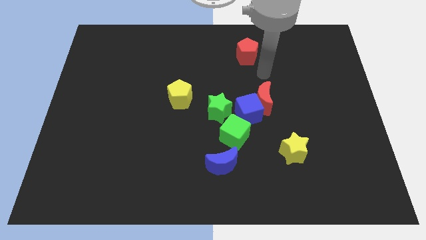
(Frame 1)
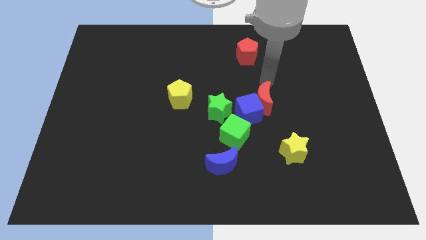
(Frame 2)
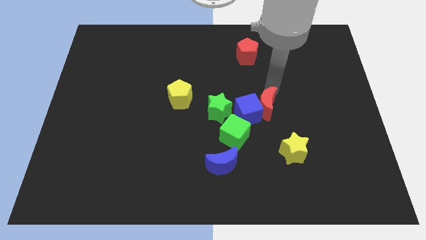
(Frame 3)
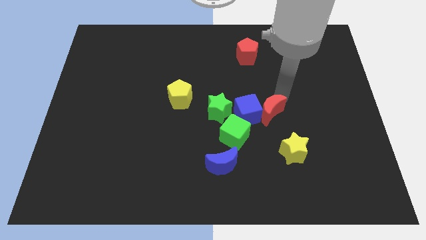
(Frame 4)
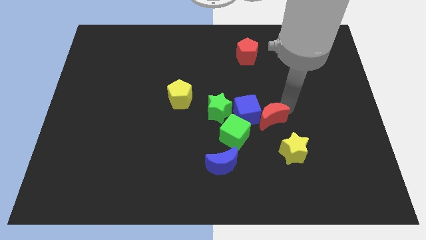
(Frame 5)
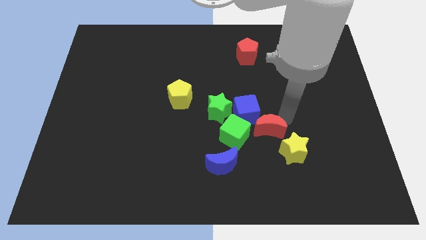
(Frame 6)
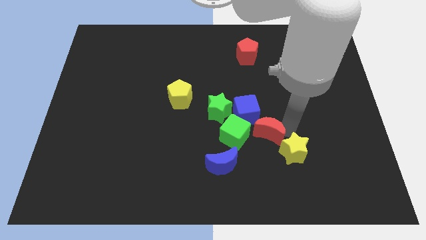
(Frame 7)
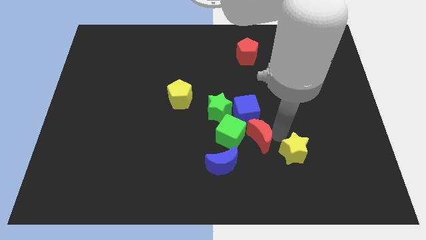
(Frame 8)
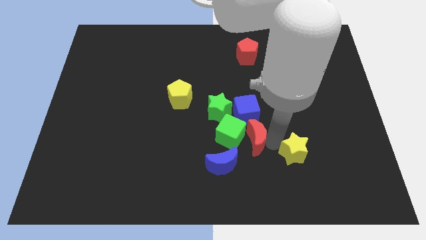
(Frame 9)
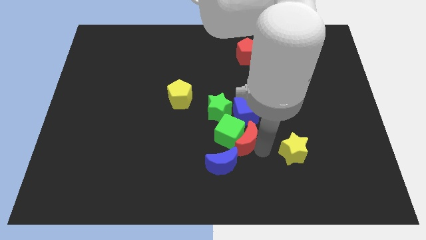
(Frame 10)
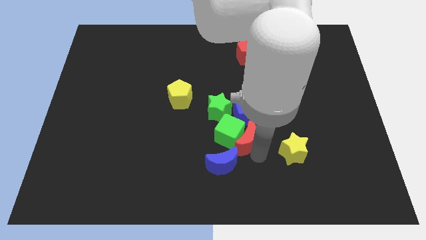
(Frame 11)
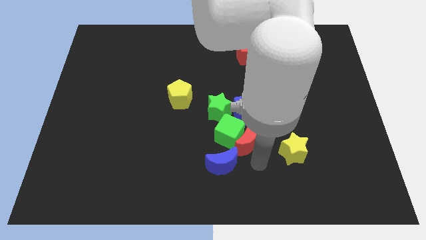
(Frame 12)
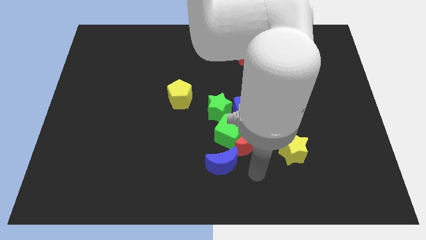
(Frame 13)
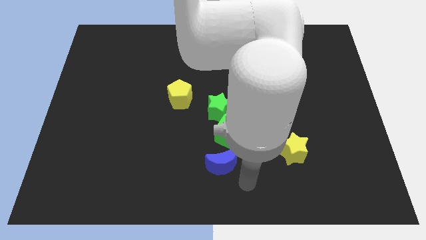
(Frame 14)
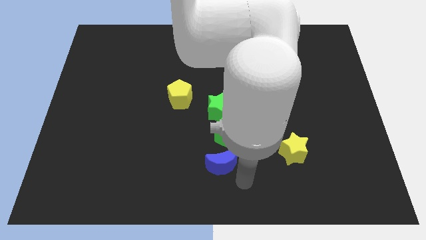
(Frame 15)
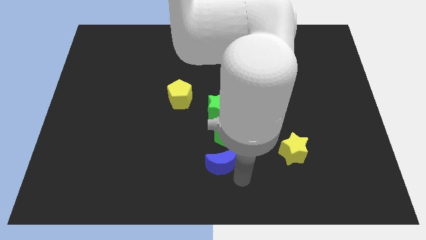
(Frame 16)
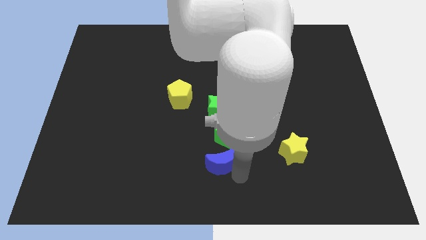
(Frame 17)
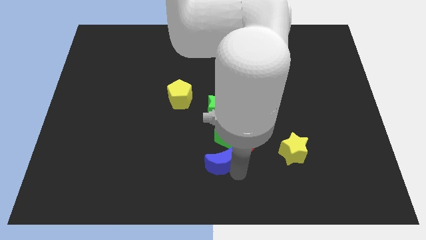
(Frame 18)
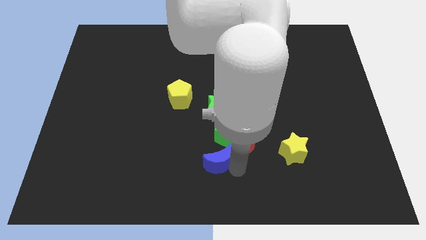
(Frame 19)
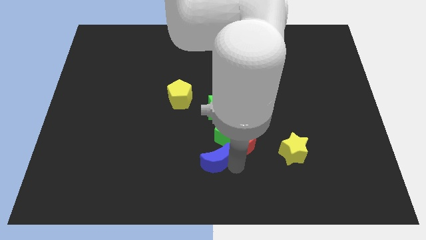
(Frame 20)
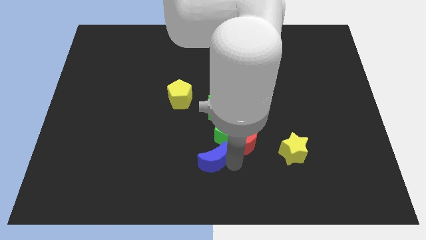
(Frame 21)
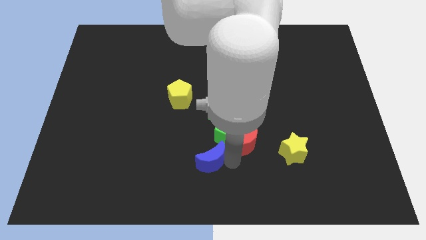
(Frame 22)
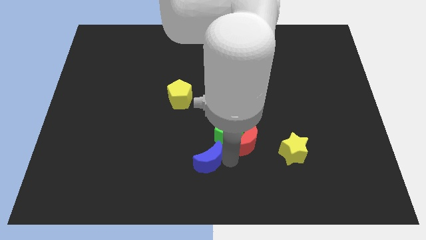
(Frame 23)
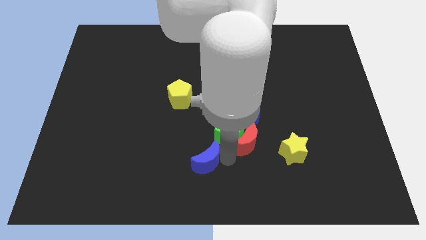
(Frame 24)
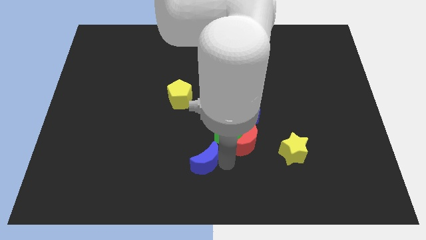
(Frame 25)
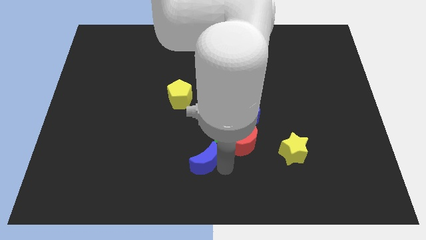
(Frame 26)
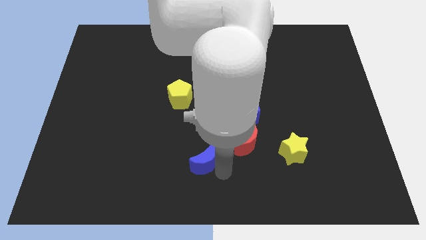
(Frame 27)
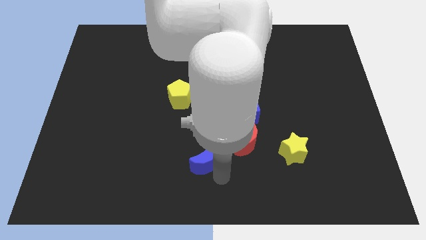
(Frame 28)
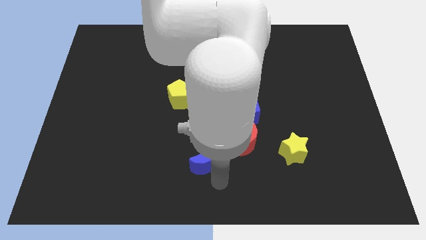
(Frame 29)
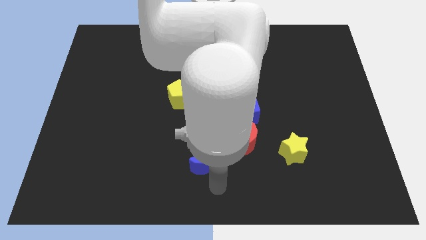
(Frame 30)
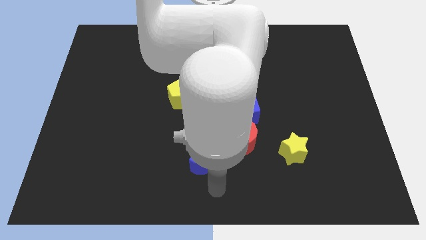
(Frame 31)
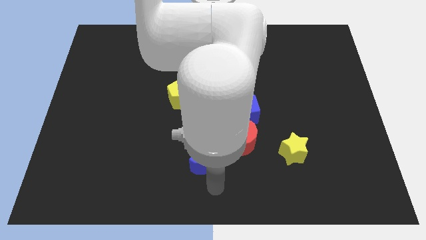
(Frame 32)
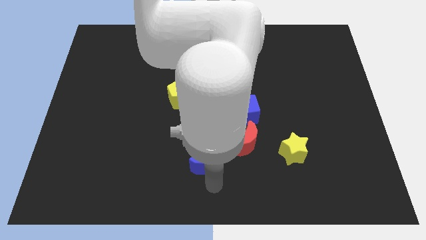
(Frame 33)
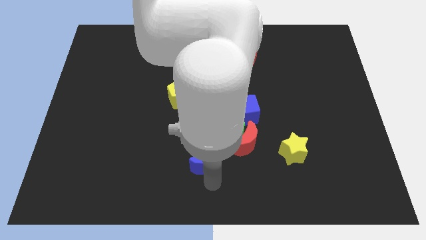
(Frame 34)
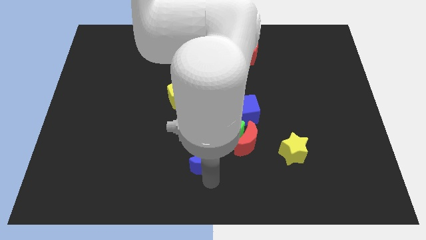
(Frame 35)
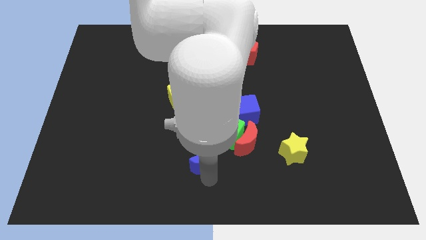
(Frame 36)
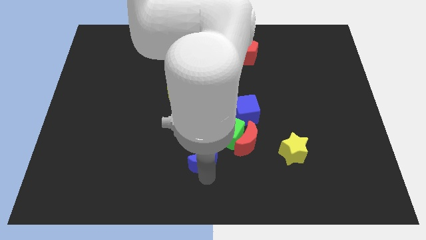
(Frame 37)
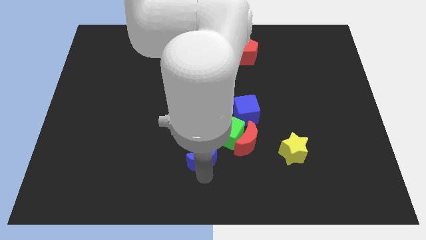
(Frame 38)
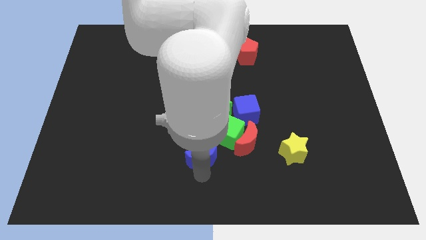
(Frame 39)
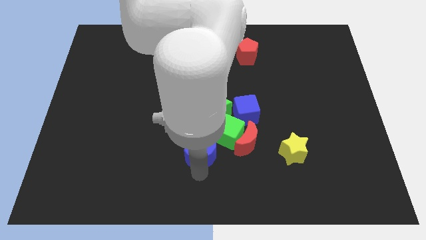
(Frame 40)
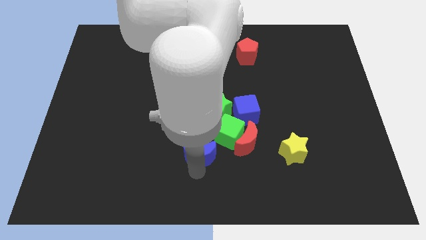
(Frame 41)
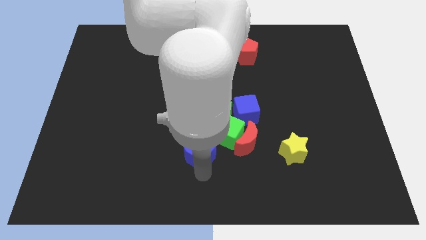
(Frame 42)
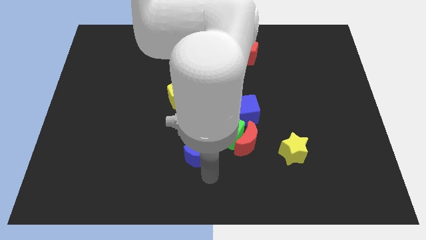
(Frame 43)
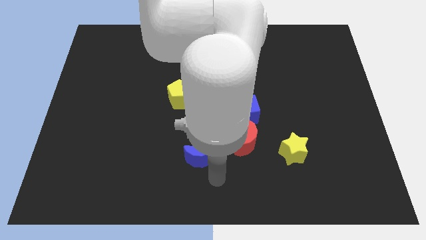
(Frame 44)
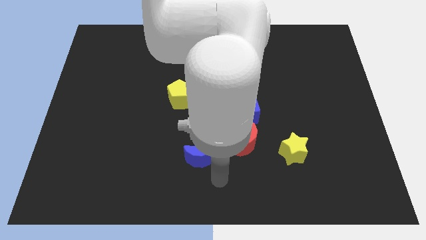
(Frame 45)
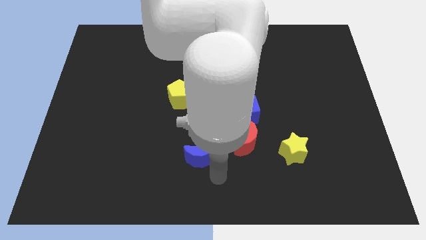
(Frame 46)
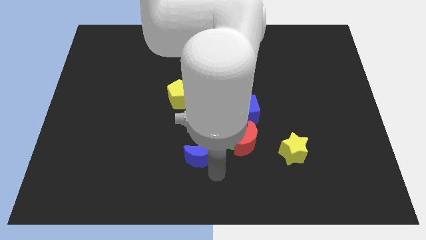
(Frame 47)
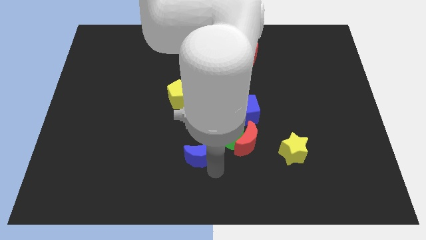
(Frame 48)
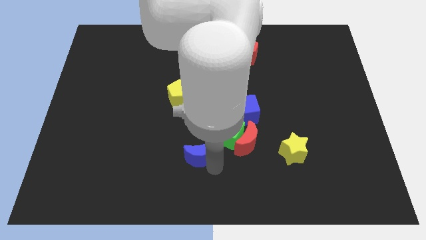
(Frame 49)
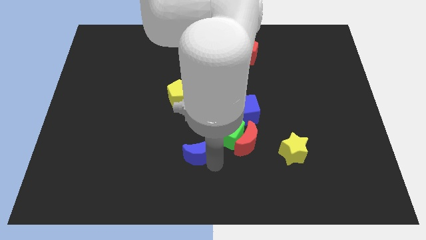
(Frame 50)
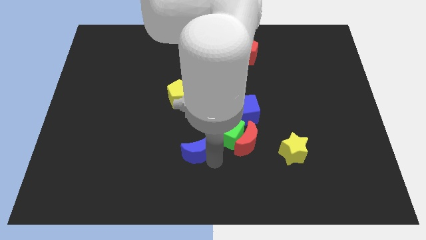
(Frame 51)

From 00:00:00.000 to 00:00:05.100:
push the blue moon to the left of the green cube

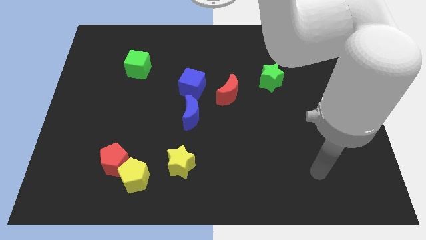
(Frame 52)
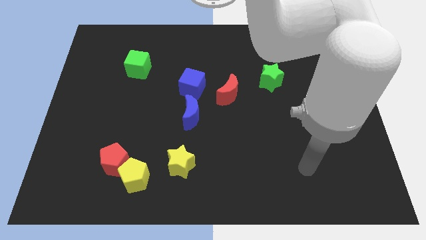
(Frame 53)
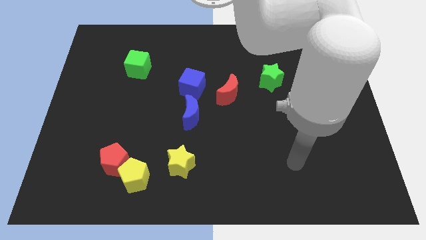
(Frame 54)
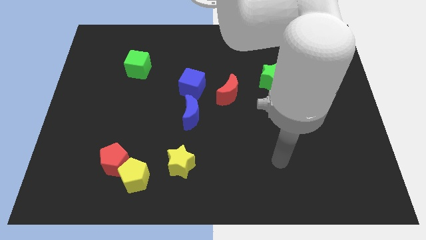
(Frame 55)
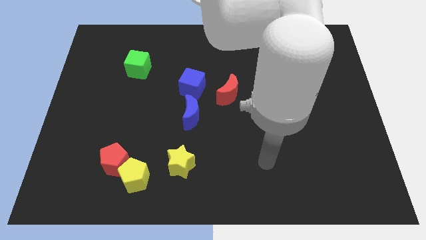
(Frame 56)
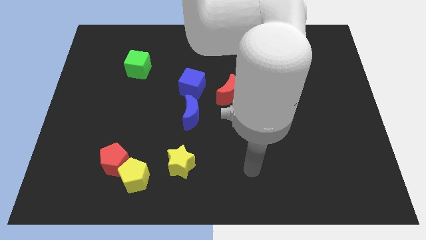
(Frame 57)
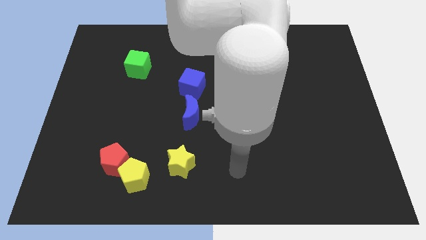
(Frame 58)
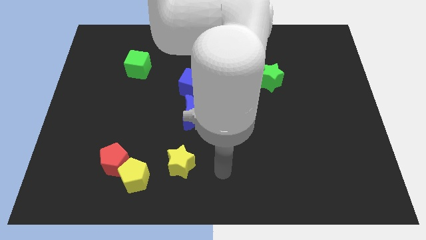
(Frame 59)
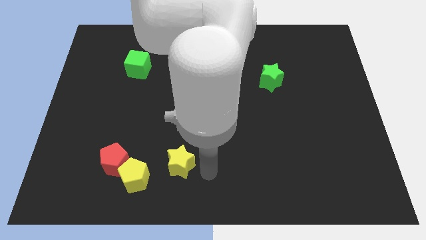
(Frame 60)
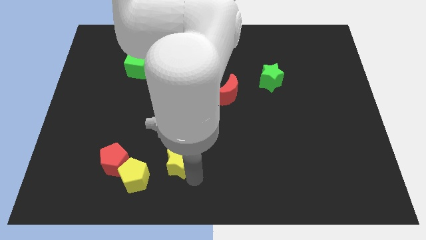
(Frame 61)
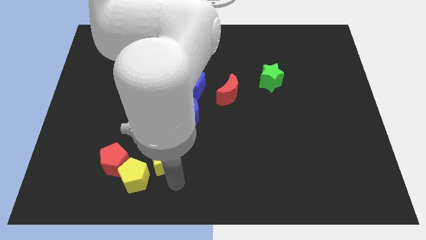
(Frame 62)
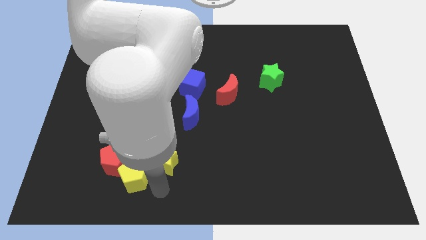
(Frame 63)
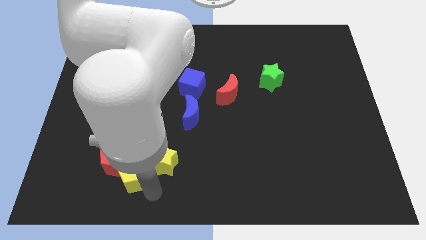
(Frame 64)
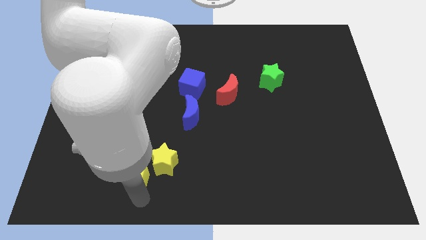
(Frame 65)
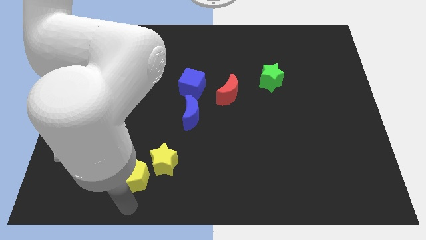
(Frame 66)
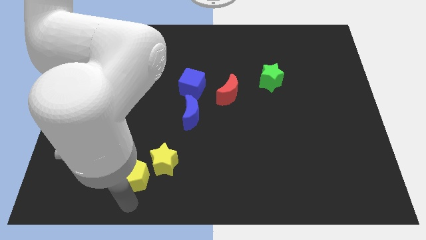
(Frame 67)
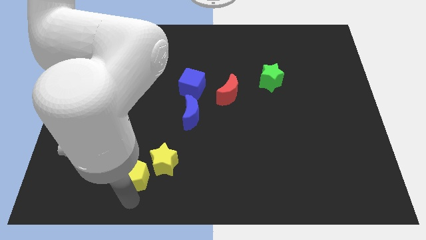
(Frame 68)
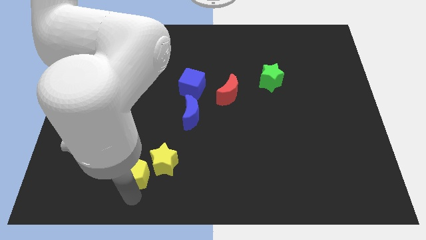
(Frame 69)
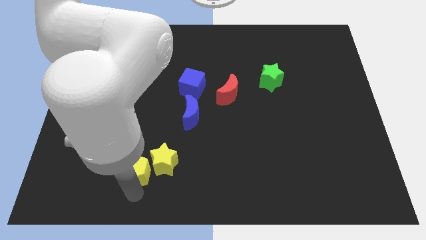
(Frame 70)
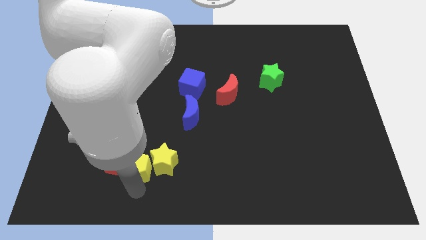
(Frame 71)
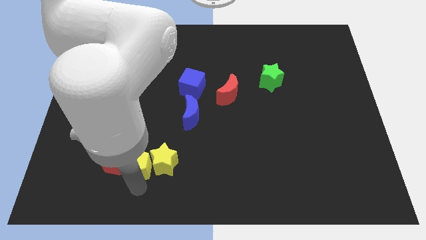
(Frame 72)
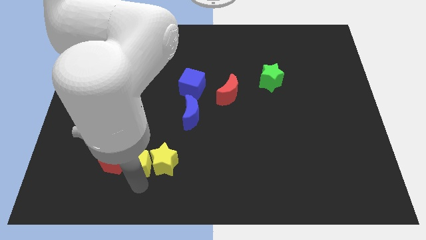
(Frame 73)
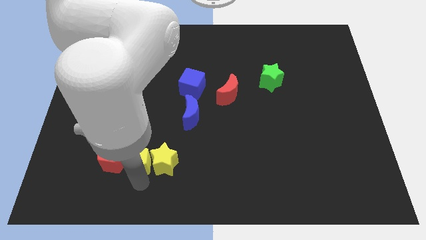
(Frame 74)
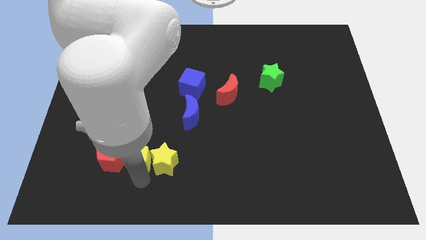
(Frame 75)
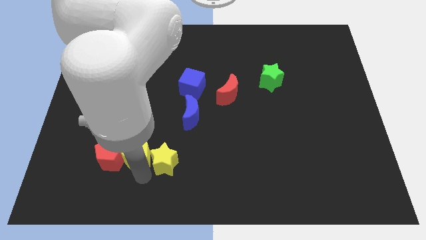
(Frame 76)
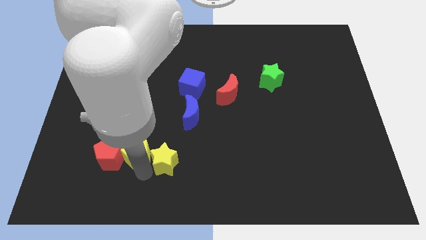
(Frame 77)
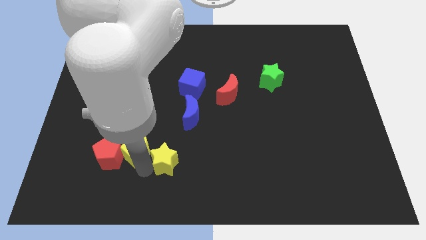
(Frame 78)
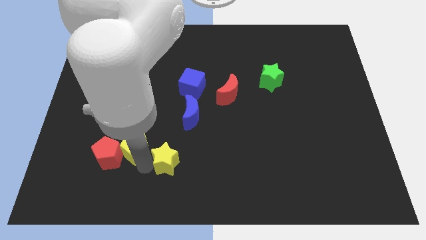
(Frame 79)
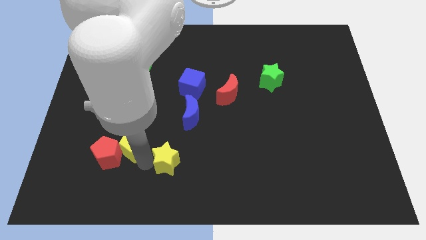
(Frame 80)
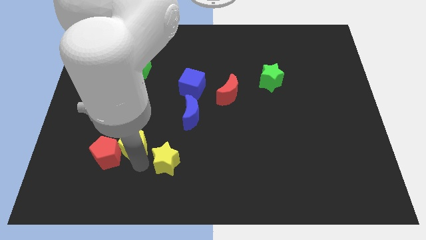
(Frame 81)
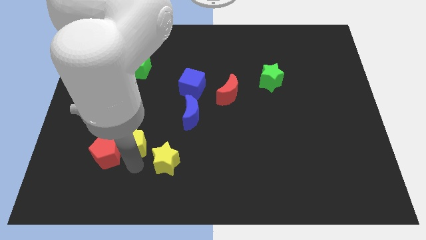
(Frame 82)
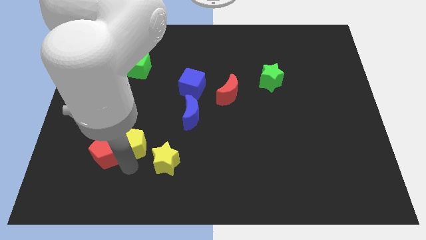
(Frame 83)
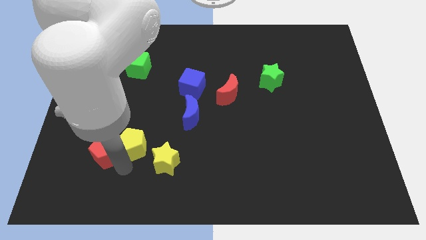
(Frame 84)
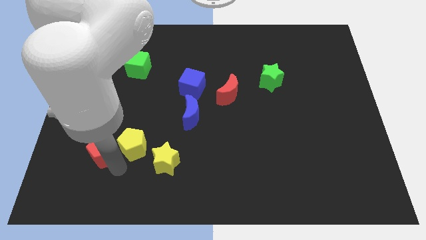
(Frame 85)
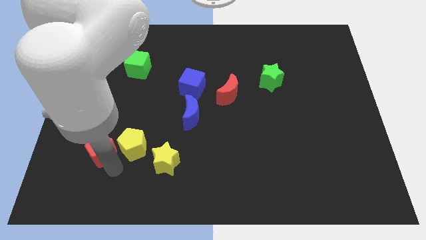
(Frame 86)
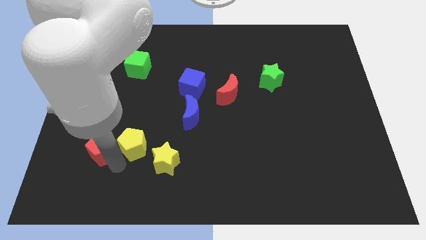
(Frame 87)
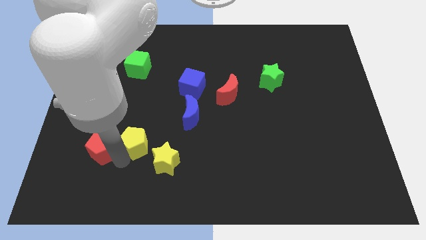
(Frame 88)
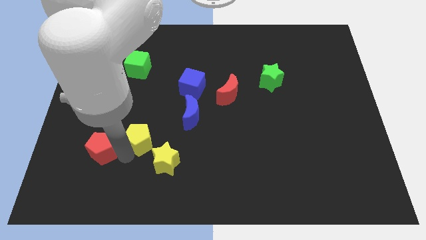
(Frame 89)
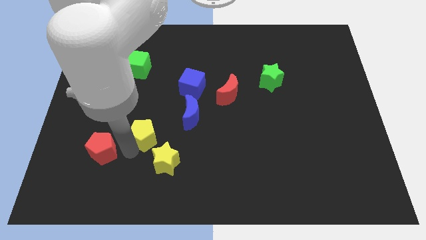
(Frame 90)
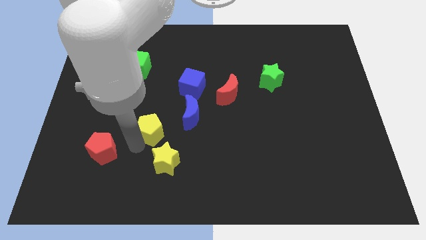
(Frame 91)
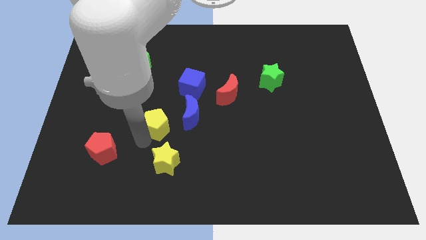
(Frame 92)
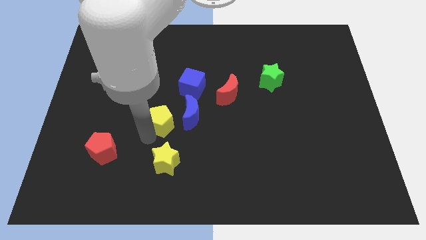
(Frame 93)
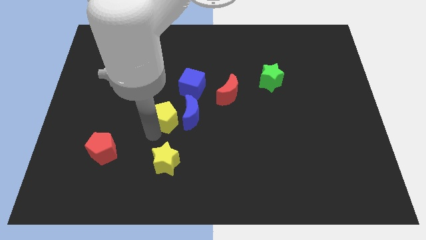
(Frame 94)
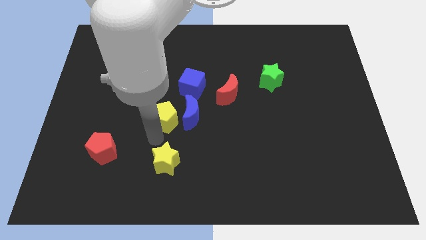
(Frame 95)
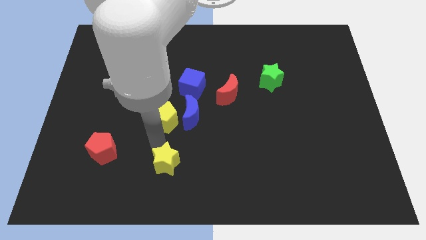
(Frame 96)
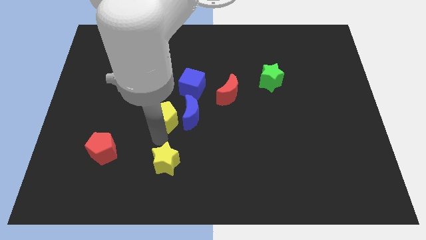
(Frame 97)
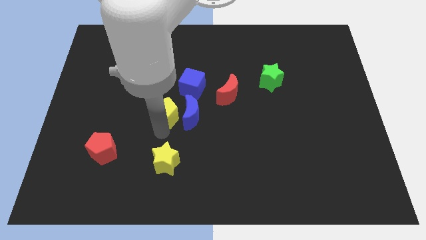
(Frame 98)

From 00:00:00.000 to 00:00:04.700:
put the yellow pentagon diagonally up and to the left of the blue moon
